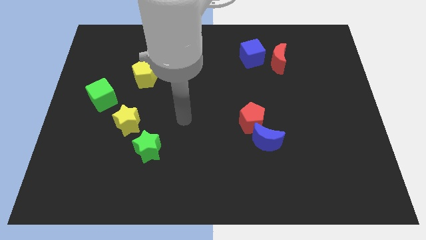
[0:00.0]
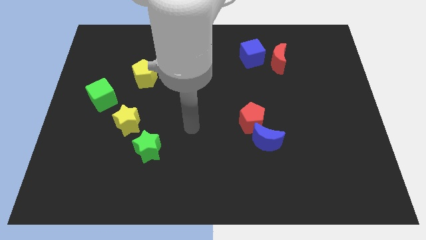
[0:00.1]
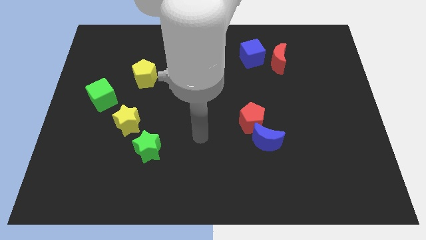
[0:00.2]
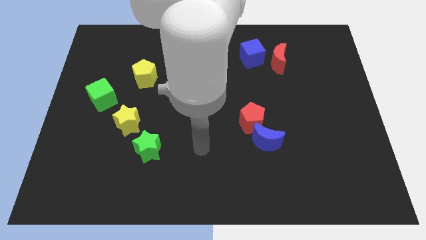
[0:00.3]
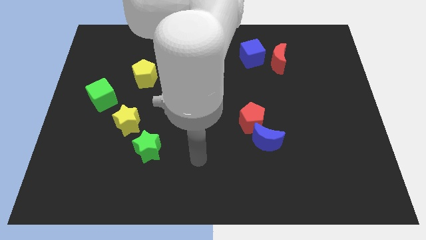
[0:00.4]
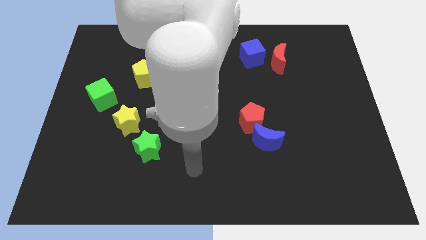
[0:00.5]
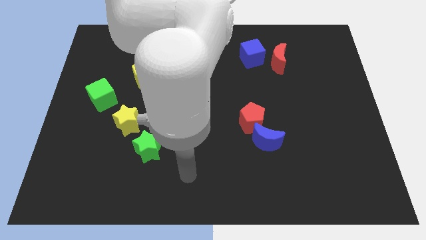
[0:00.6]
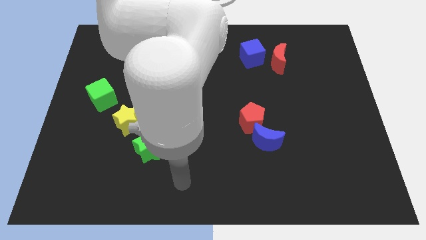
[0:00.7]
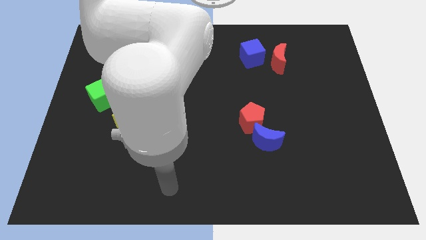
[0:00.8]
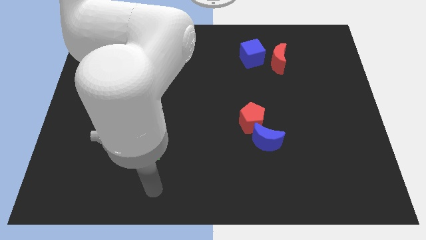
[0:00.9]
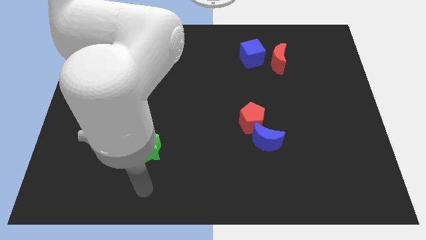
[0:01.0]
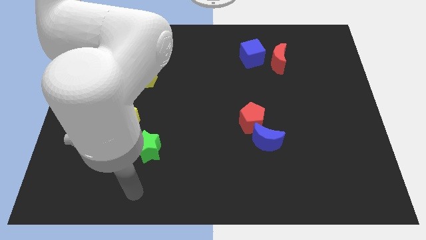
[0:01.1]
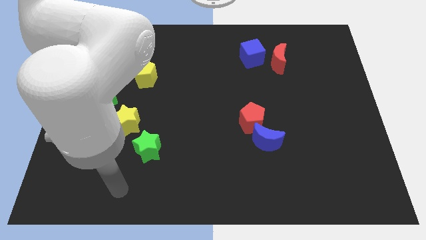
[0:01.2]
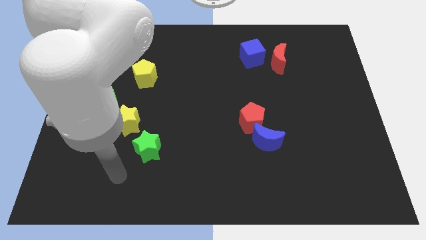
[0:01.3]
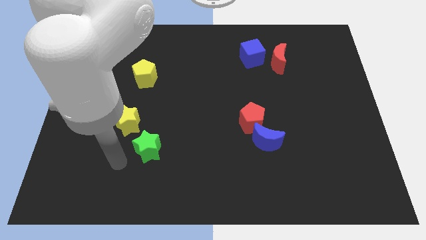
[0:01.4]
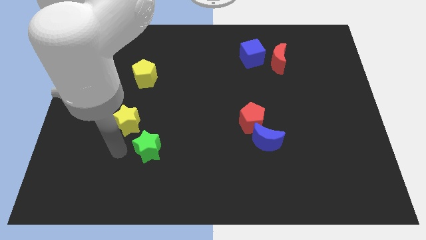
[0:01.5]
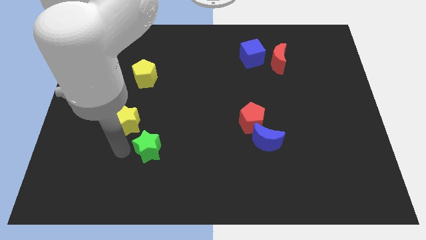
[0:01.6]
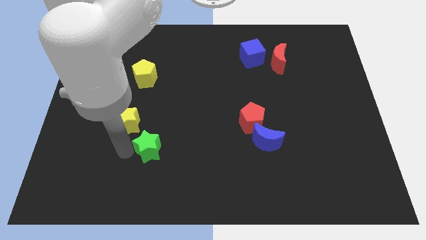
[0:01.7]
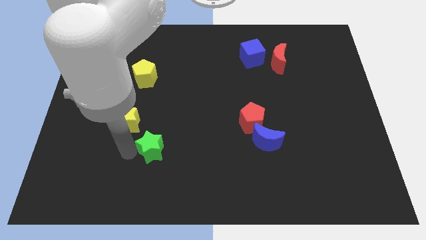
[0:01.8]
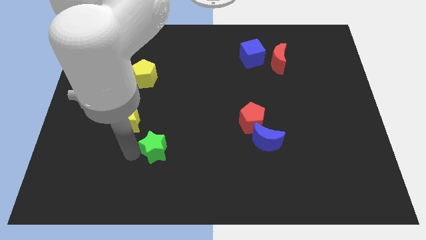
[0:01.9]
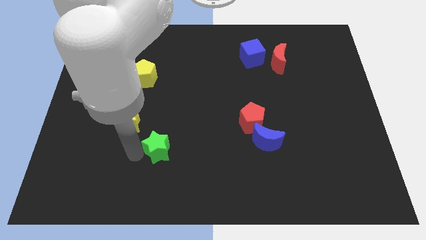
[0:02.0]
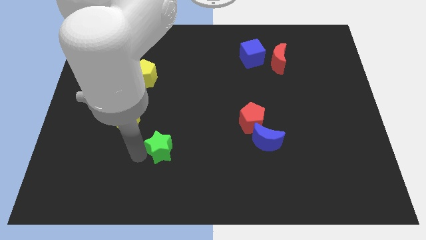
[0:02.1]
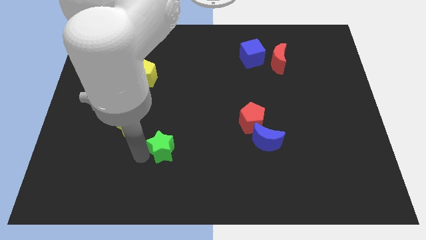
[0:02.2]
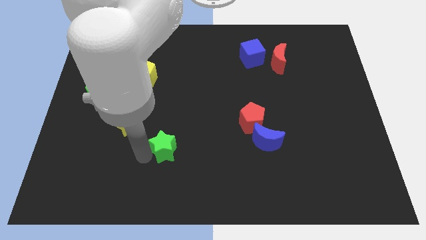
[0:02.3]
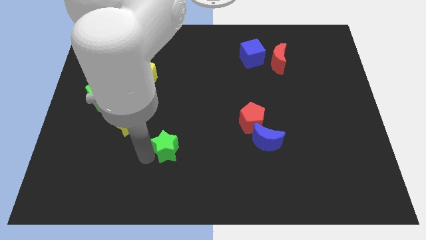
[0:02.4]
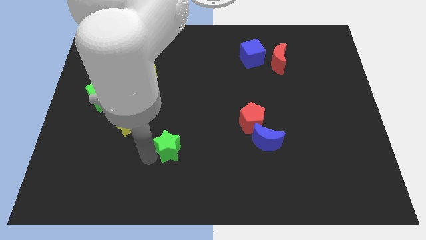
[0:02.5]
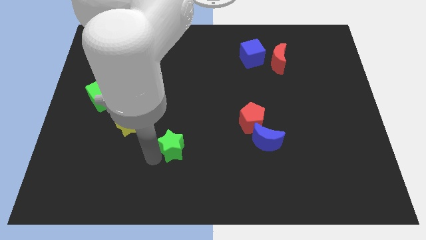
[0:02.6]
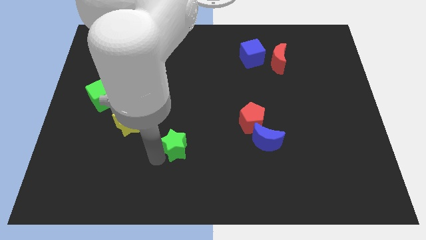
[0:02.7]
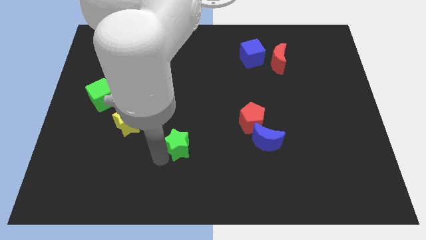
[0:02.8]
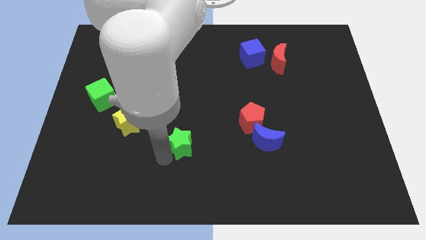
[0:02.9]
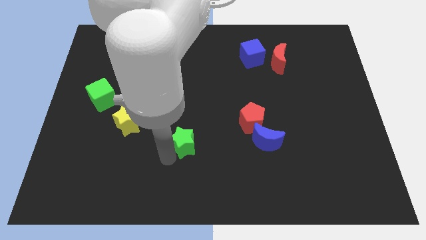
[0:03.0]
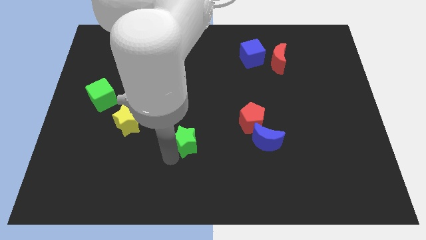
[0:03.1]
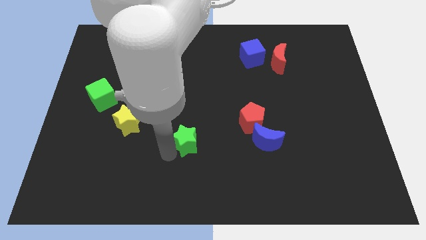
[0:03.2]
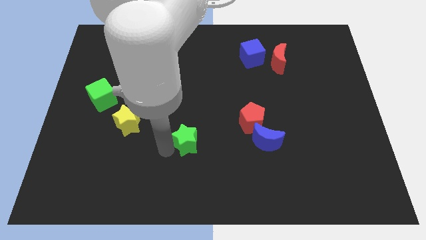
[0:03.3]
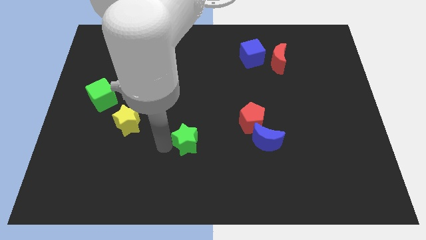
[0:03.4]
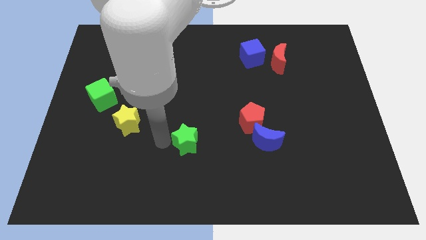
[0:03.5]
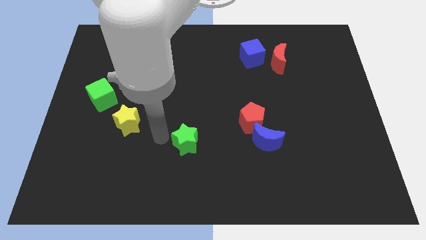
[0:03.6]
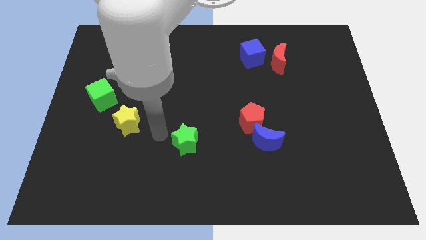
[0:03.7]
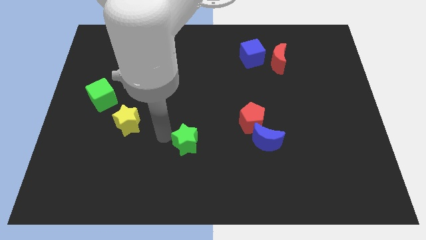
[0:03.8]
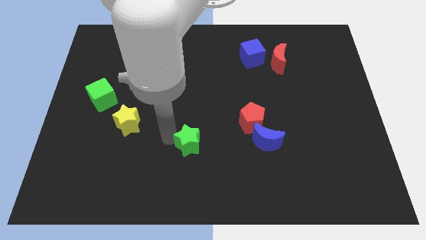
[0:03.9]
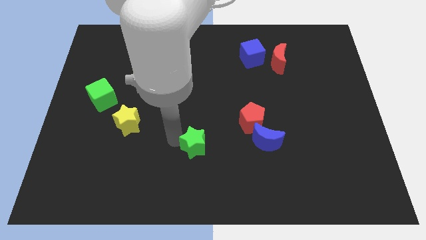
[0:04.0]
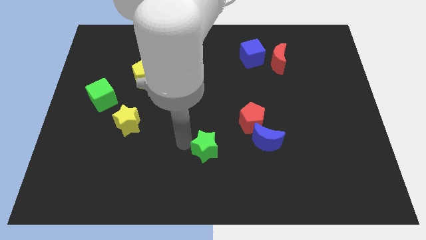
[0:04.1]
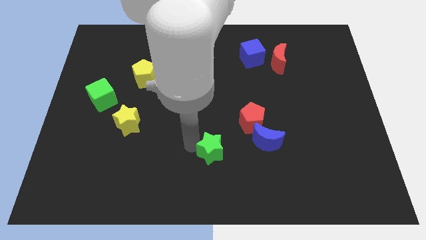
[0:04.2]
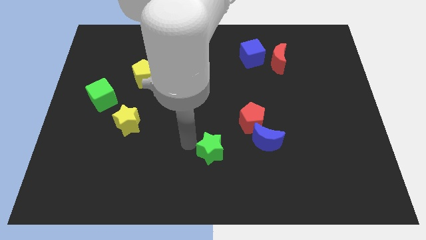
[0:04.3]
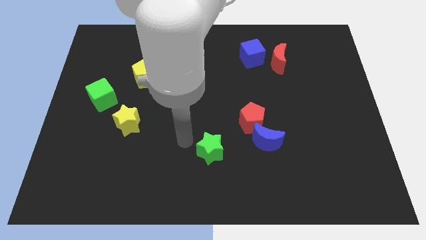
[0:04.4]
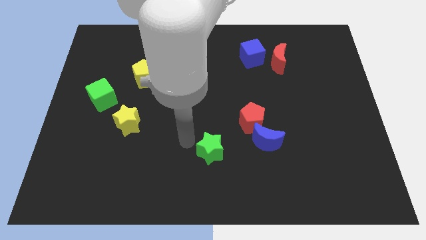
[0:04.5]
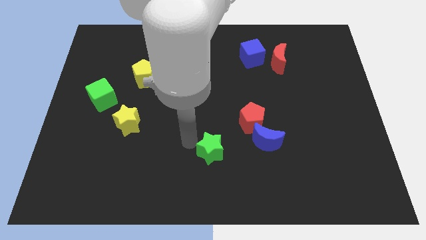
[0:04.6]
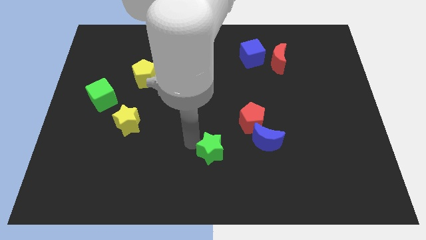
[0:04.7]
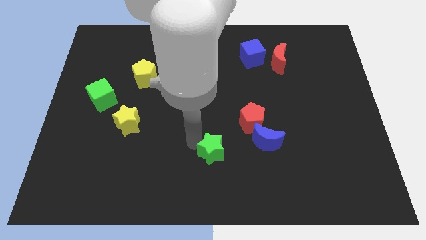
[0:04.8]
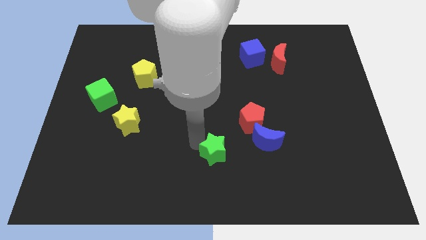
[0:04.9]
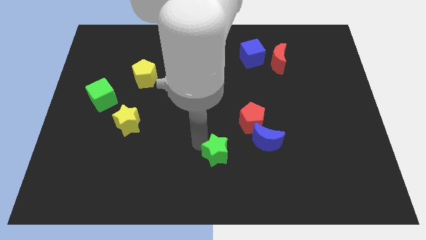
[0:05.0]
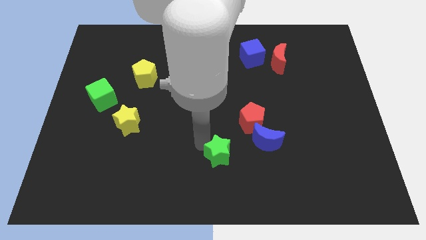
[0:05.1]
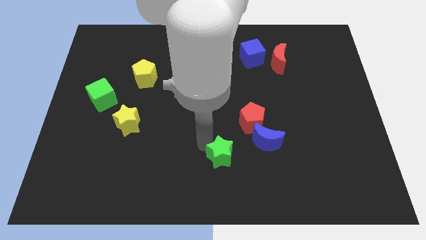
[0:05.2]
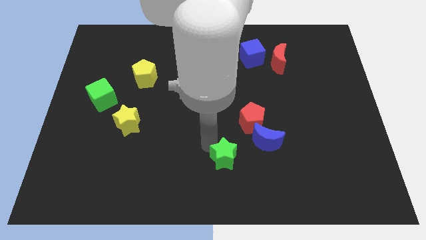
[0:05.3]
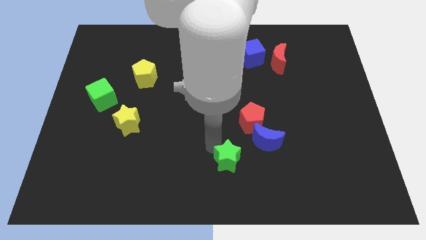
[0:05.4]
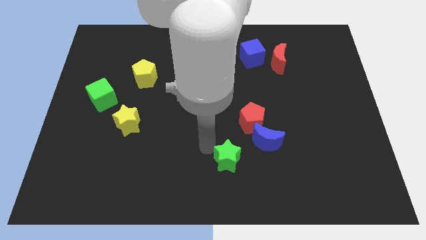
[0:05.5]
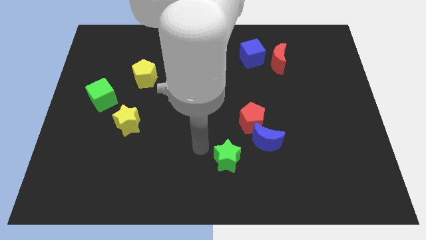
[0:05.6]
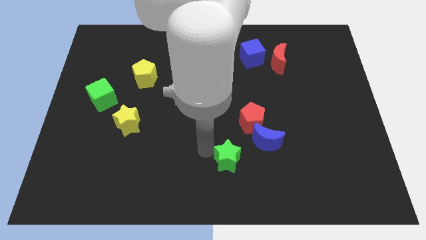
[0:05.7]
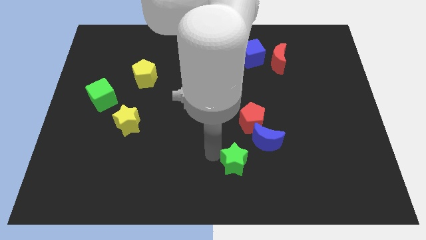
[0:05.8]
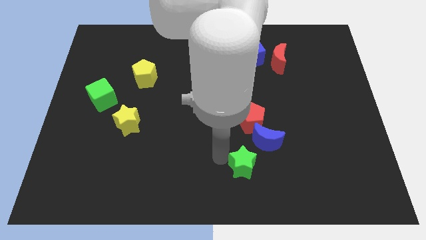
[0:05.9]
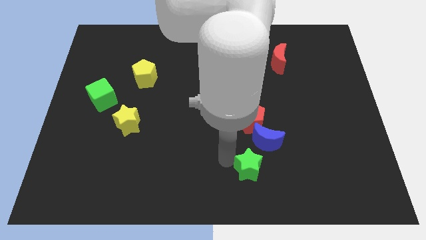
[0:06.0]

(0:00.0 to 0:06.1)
push the green star right

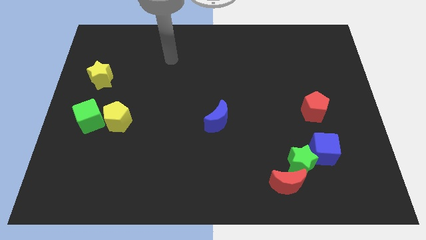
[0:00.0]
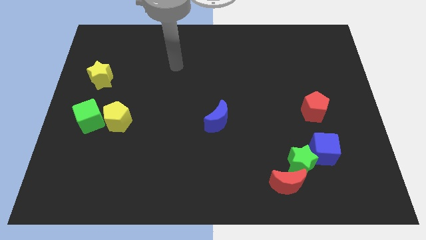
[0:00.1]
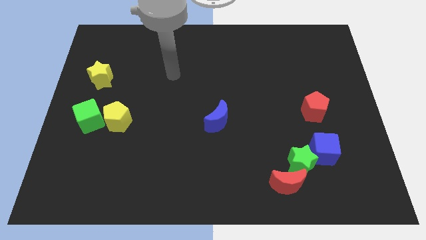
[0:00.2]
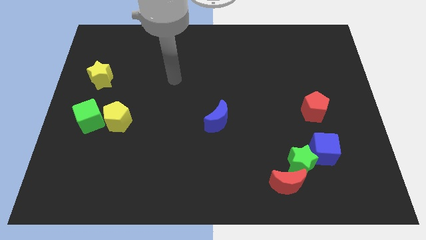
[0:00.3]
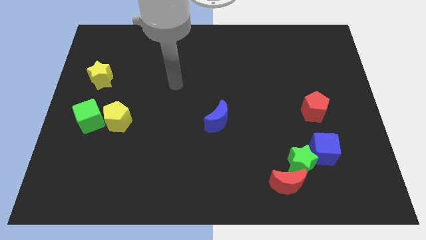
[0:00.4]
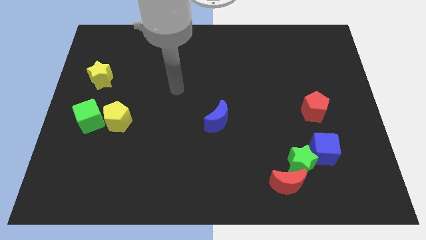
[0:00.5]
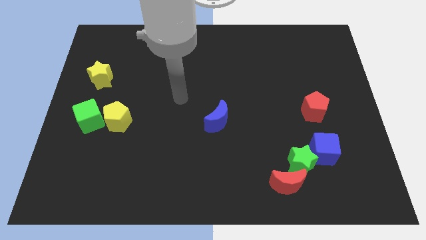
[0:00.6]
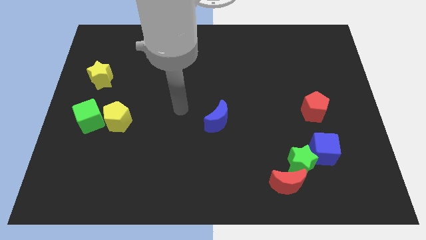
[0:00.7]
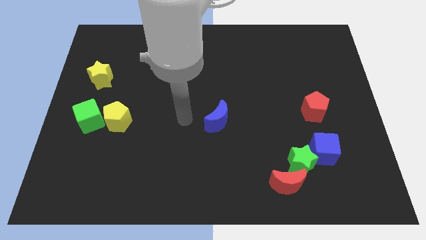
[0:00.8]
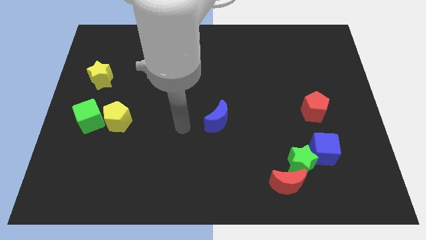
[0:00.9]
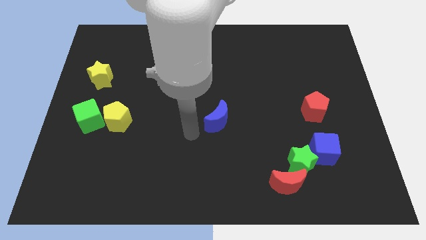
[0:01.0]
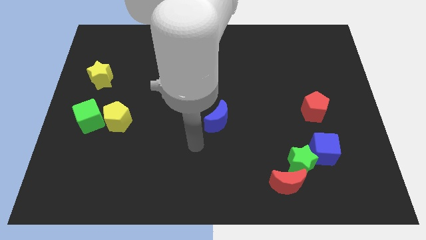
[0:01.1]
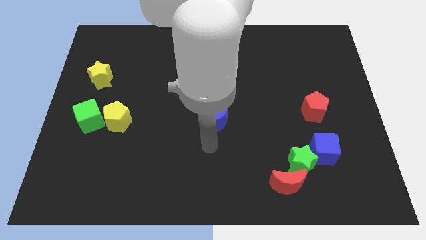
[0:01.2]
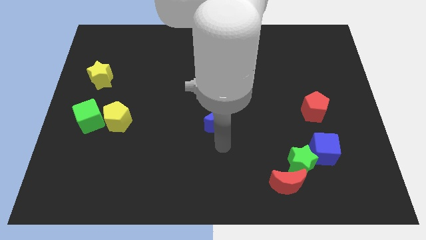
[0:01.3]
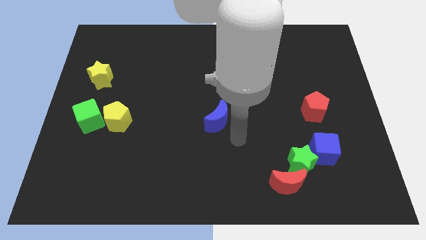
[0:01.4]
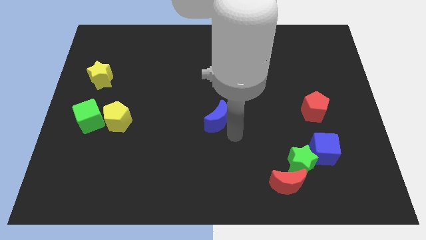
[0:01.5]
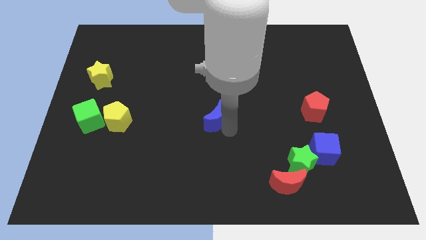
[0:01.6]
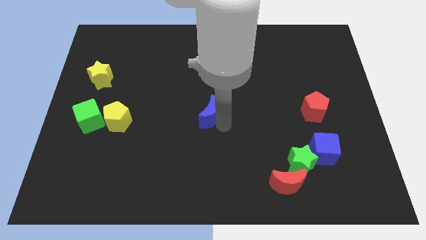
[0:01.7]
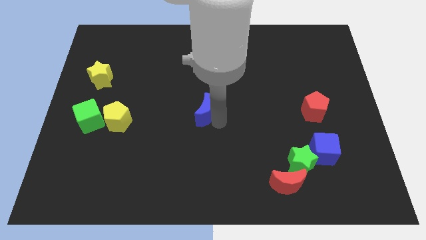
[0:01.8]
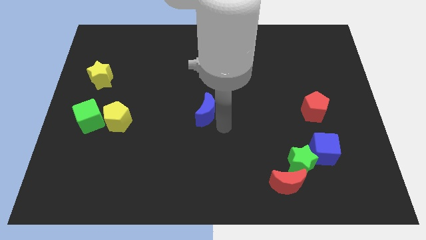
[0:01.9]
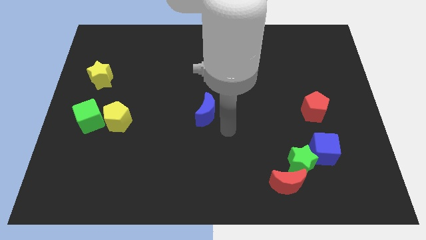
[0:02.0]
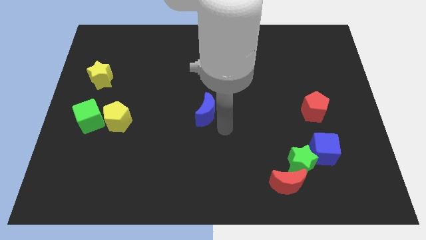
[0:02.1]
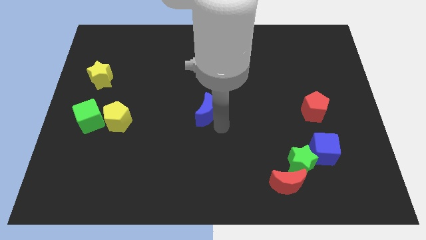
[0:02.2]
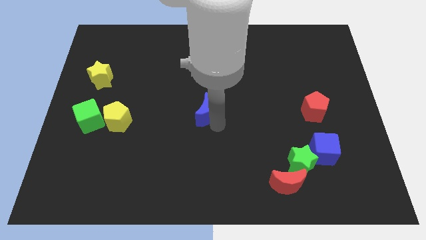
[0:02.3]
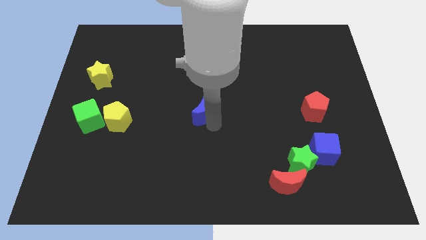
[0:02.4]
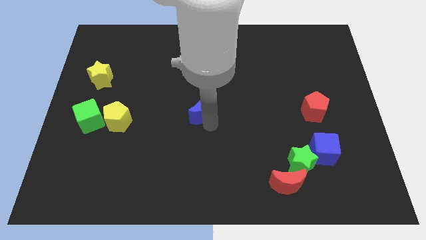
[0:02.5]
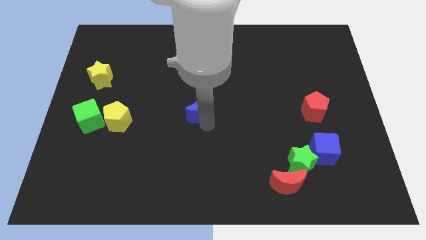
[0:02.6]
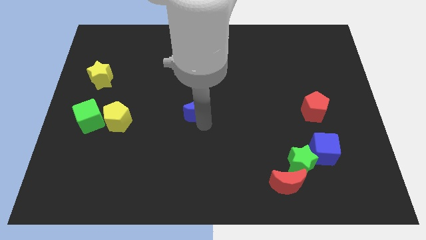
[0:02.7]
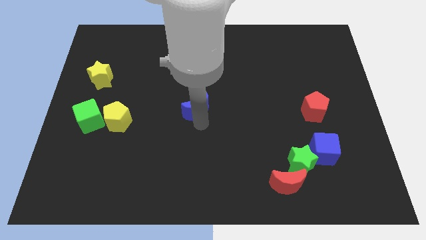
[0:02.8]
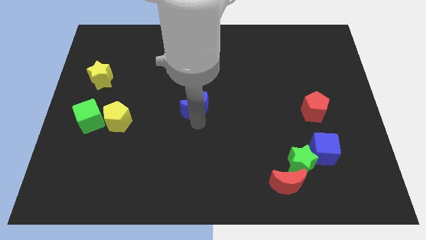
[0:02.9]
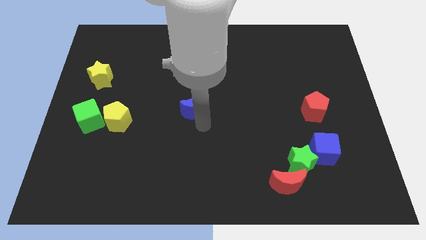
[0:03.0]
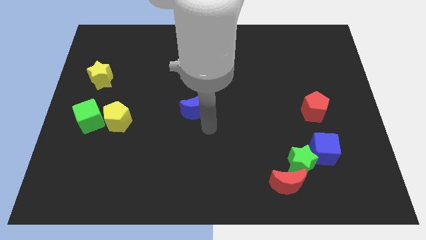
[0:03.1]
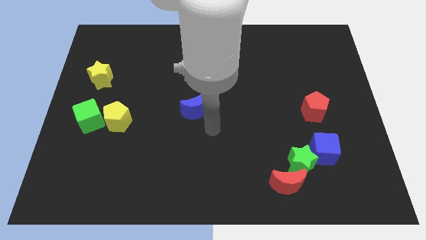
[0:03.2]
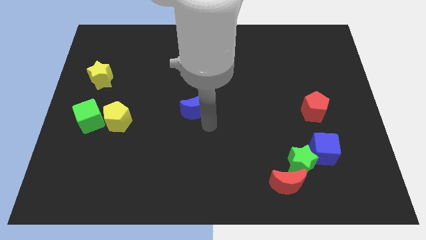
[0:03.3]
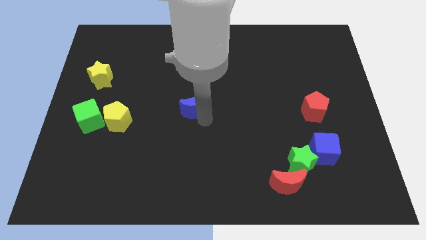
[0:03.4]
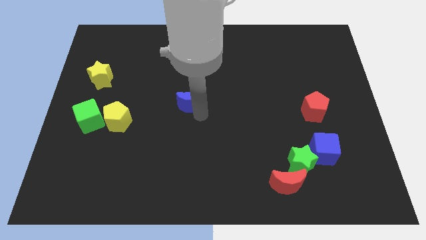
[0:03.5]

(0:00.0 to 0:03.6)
slightly move the blue moon upwards and left
